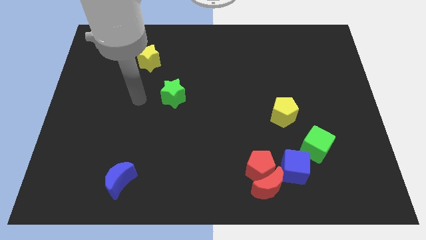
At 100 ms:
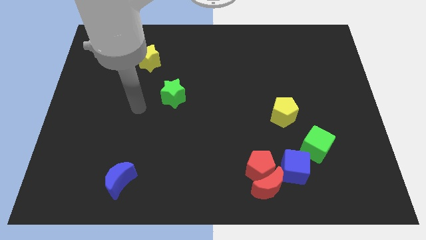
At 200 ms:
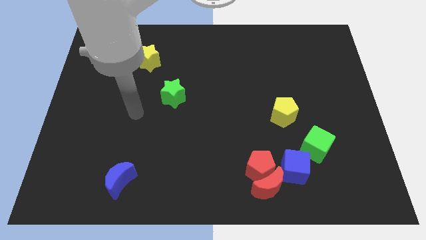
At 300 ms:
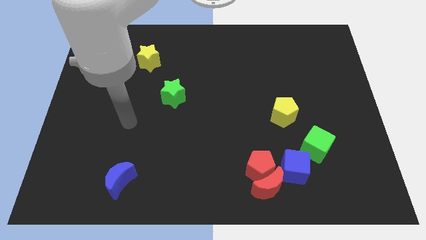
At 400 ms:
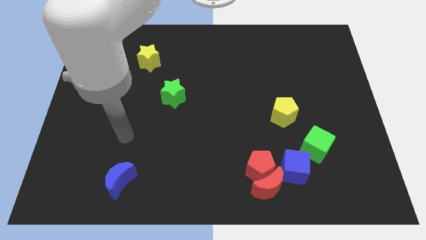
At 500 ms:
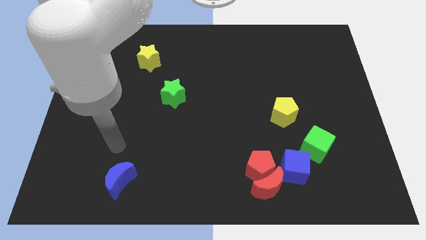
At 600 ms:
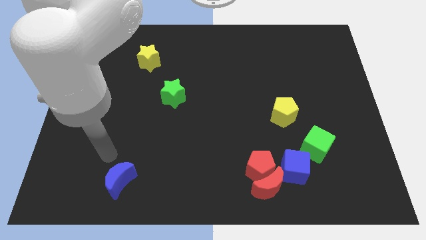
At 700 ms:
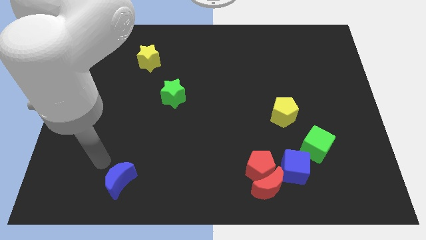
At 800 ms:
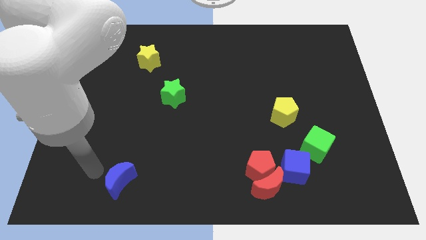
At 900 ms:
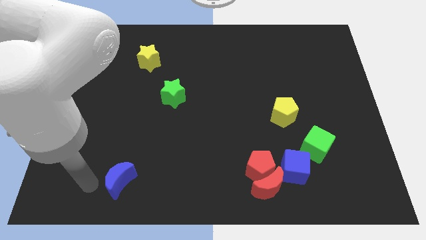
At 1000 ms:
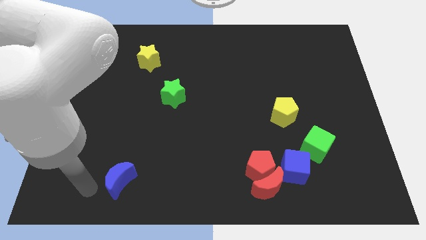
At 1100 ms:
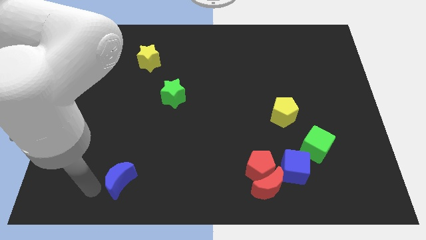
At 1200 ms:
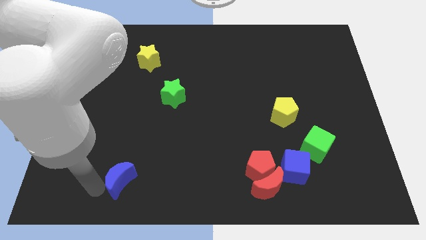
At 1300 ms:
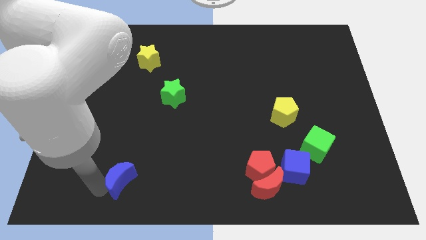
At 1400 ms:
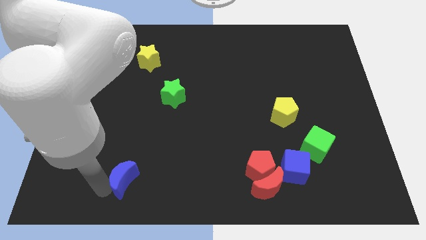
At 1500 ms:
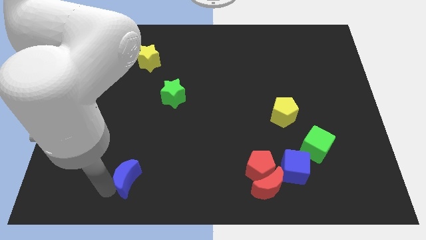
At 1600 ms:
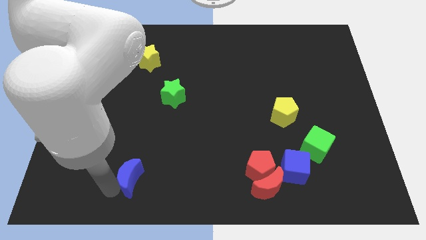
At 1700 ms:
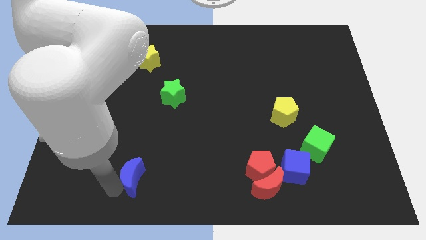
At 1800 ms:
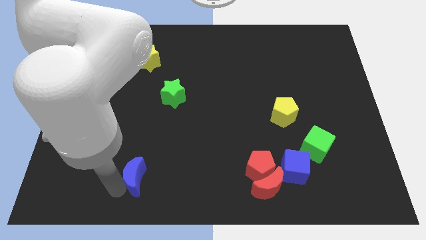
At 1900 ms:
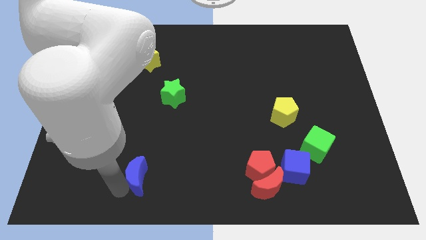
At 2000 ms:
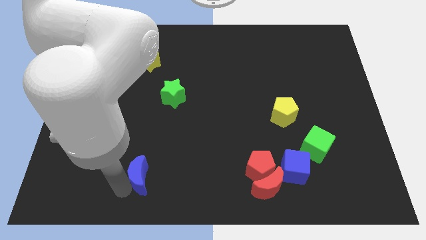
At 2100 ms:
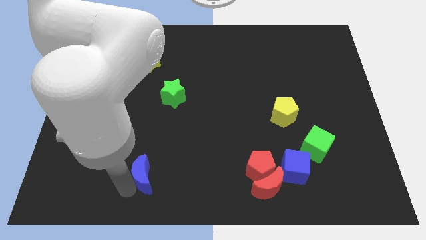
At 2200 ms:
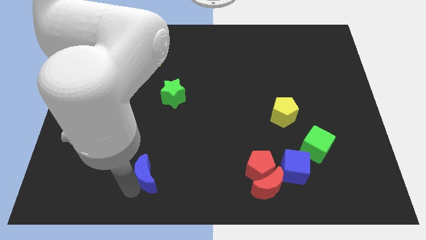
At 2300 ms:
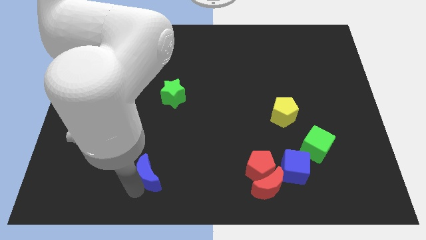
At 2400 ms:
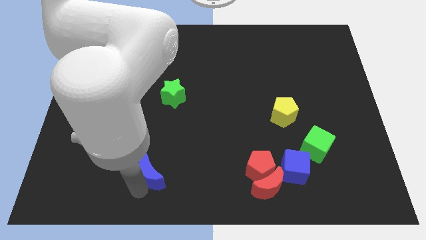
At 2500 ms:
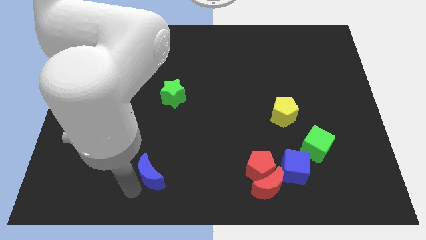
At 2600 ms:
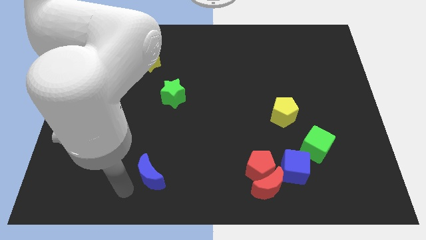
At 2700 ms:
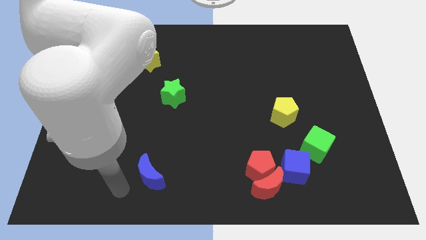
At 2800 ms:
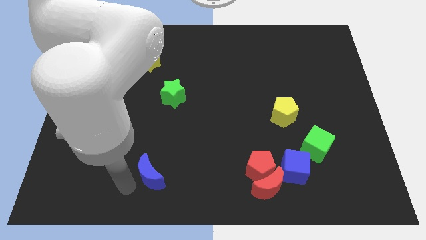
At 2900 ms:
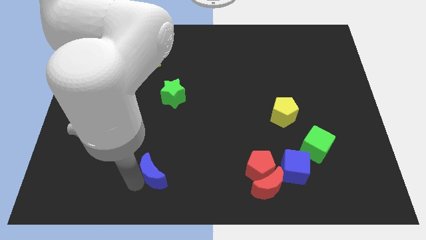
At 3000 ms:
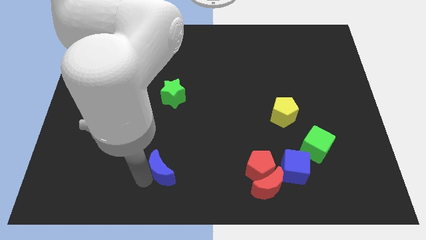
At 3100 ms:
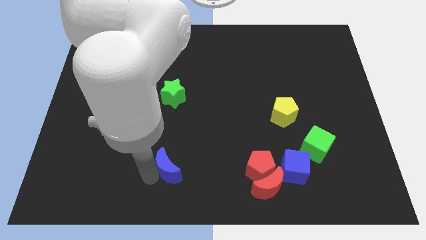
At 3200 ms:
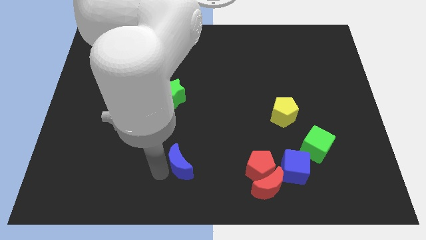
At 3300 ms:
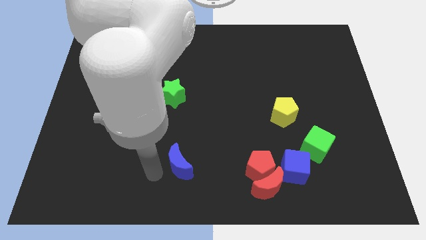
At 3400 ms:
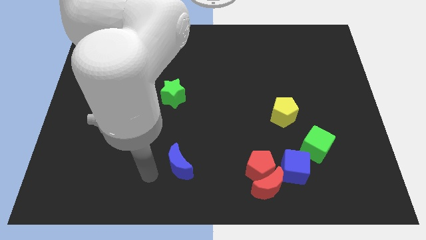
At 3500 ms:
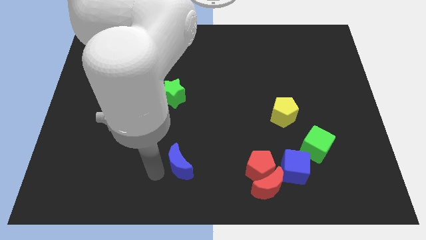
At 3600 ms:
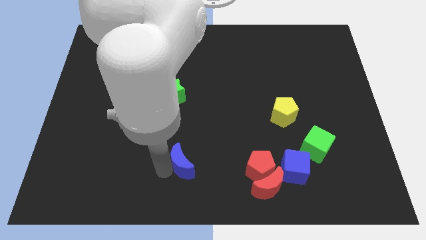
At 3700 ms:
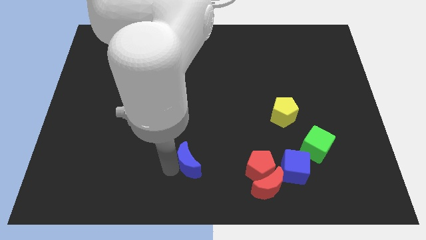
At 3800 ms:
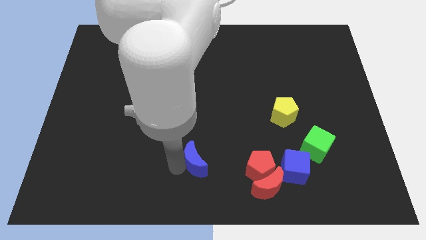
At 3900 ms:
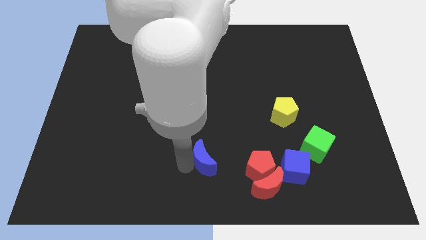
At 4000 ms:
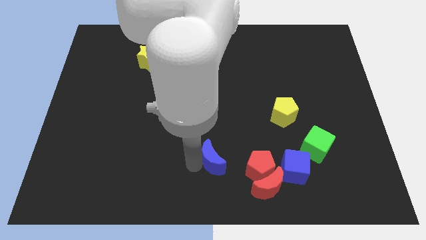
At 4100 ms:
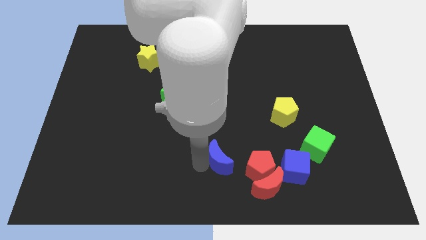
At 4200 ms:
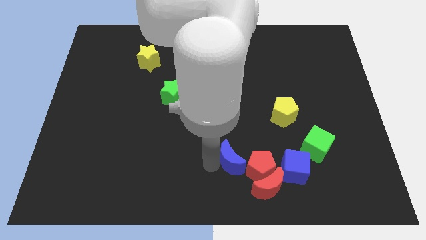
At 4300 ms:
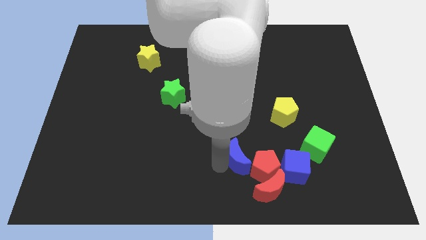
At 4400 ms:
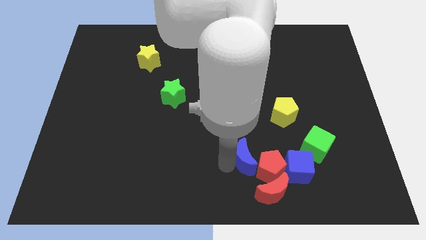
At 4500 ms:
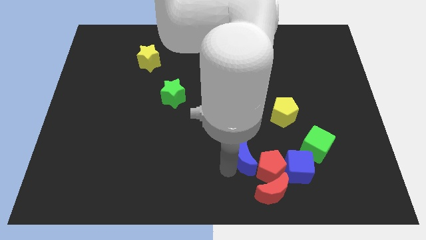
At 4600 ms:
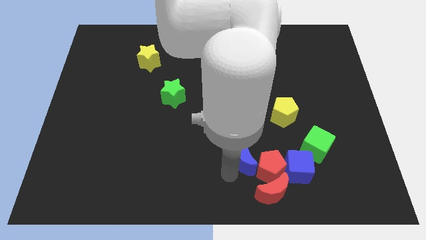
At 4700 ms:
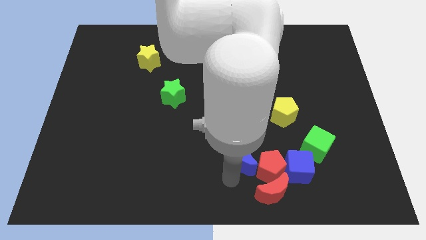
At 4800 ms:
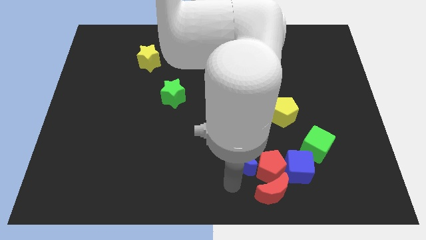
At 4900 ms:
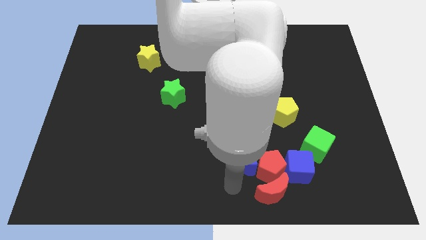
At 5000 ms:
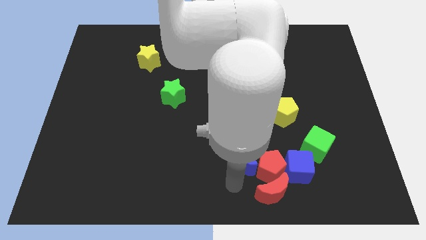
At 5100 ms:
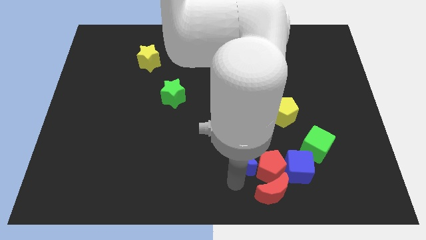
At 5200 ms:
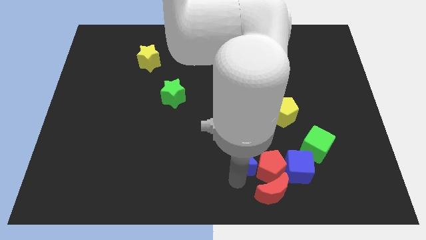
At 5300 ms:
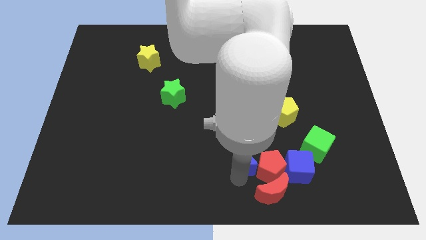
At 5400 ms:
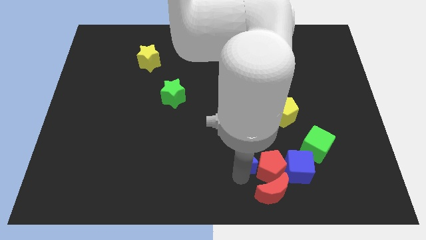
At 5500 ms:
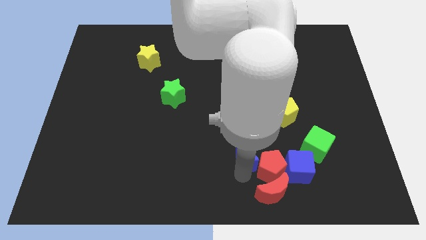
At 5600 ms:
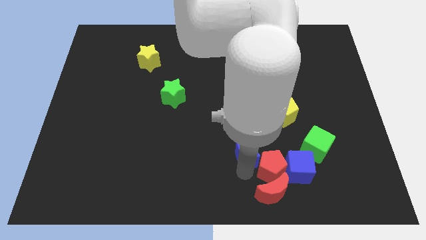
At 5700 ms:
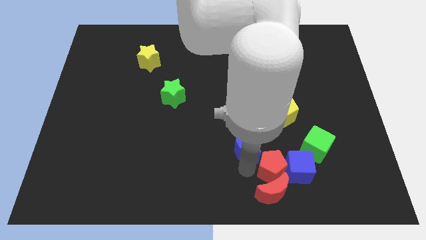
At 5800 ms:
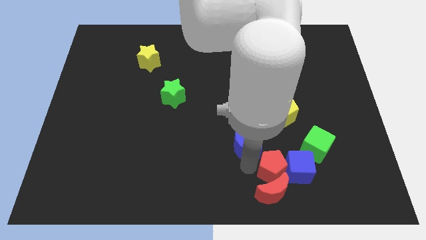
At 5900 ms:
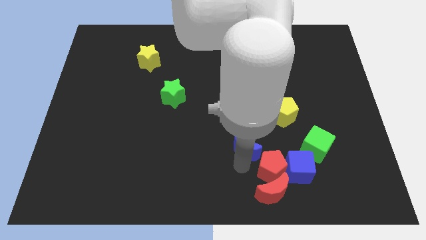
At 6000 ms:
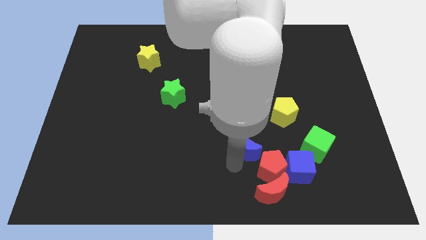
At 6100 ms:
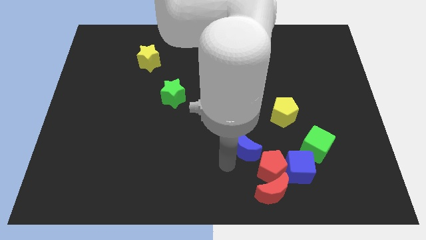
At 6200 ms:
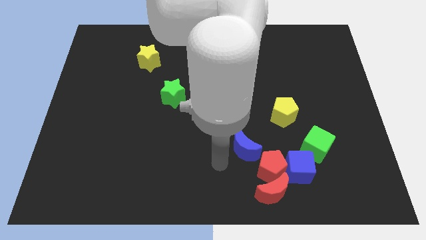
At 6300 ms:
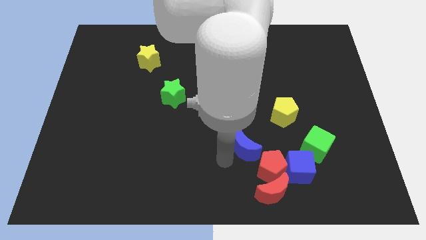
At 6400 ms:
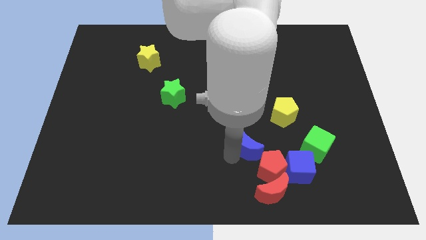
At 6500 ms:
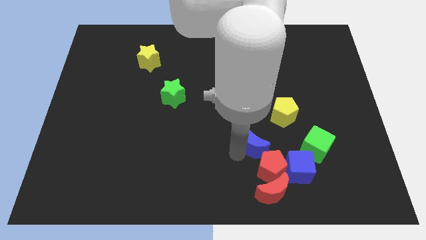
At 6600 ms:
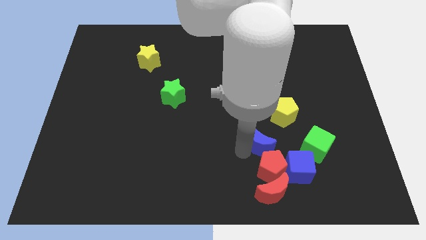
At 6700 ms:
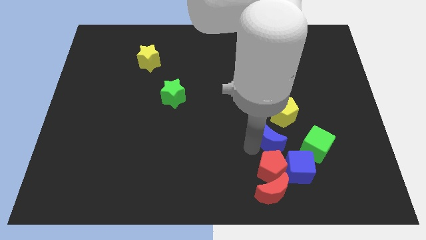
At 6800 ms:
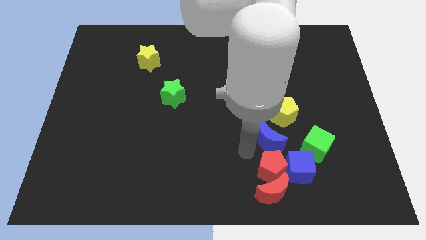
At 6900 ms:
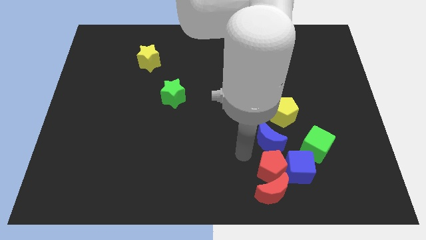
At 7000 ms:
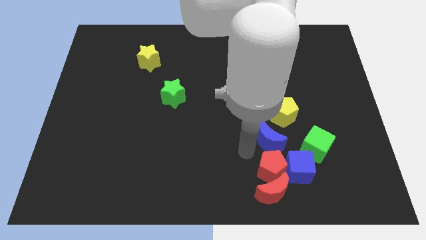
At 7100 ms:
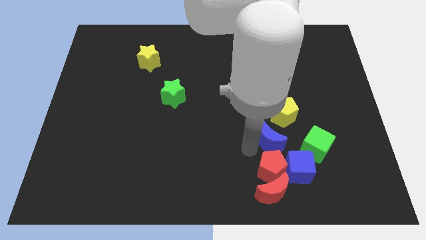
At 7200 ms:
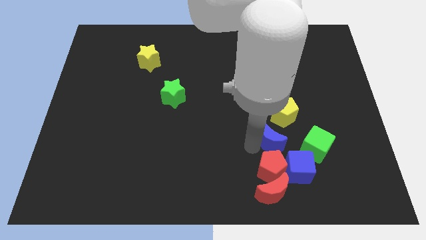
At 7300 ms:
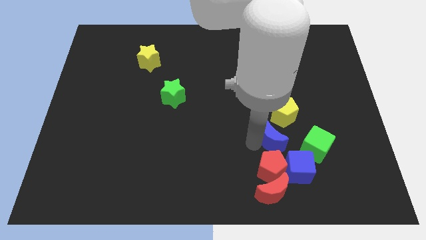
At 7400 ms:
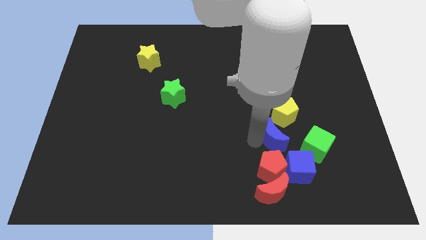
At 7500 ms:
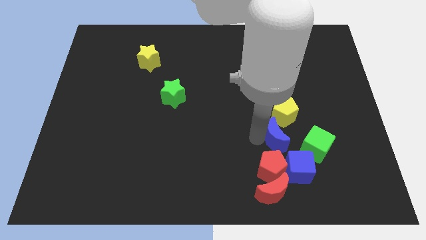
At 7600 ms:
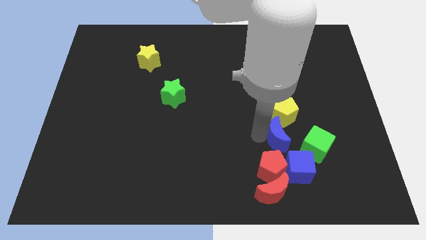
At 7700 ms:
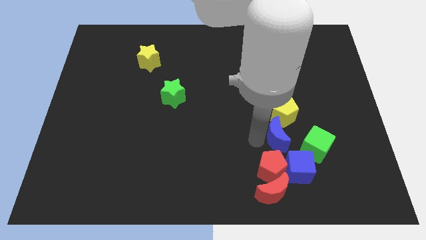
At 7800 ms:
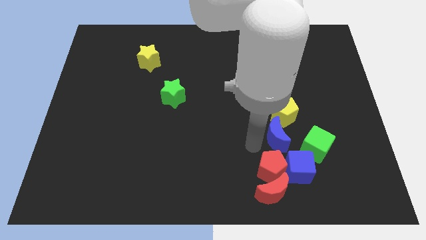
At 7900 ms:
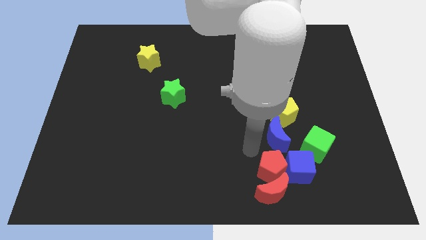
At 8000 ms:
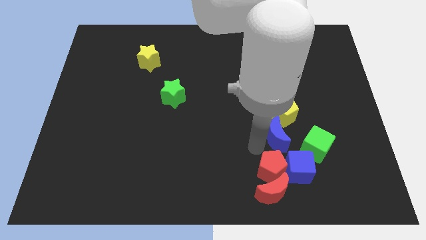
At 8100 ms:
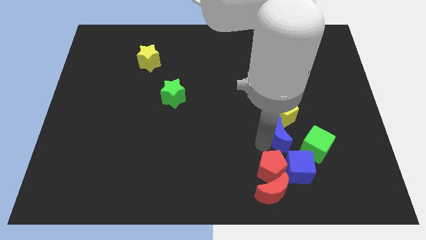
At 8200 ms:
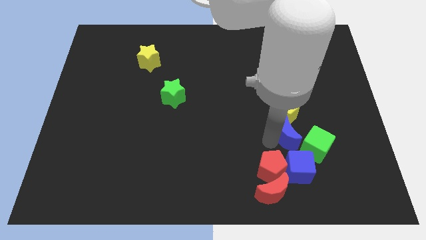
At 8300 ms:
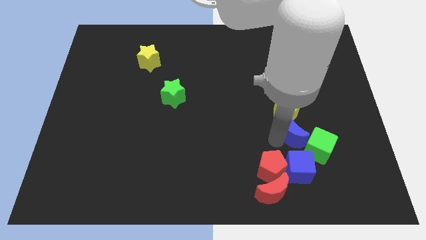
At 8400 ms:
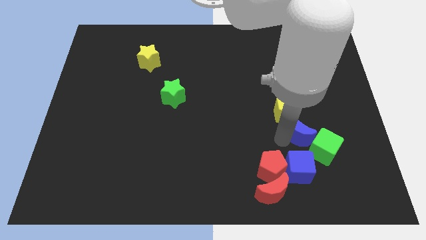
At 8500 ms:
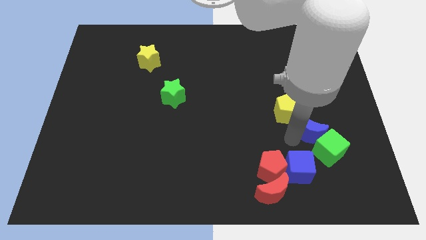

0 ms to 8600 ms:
push the blue moon to the top side of the green cube
